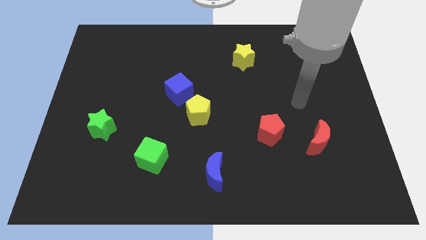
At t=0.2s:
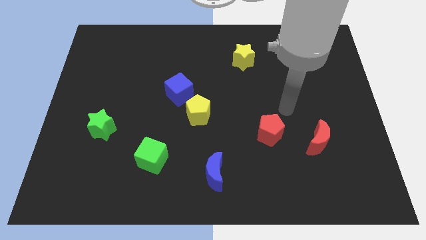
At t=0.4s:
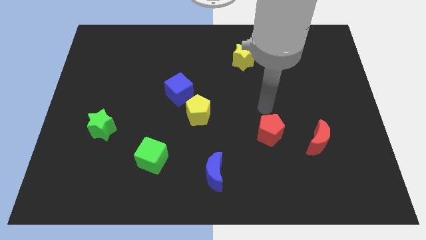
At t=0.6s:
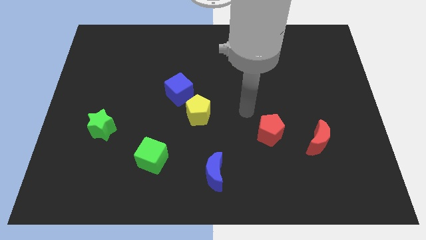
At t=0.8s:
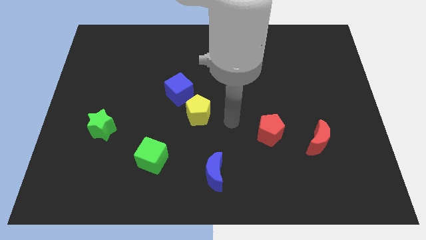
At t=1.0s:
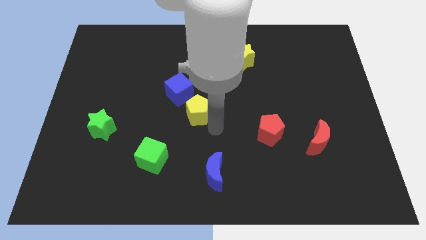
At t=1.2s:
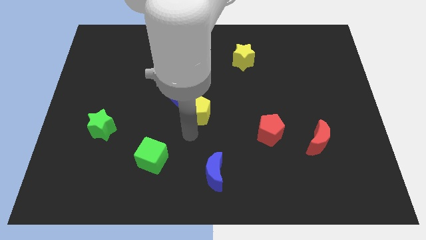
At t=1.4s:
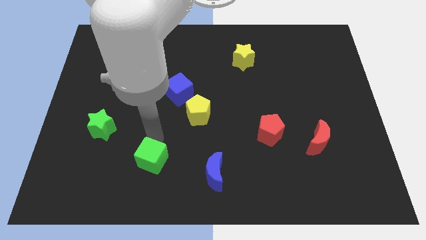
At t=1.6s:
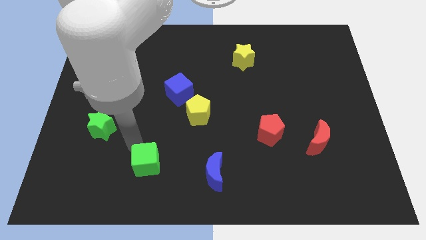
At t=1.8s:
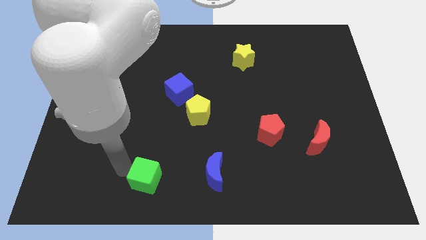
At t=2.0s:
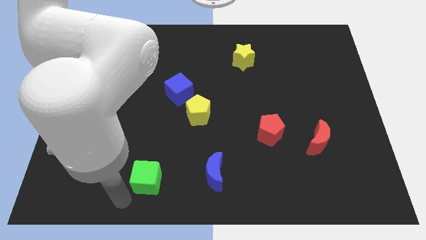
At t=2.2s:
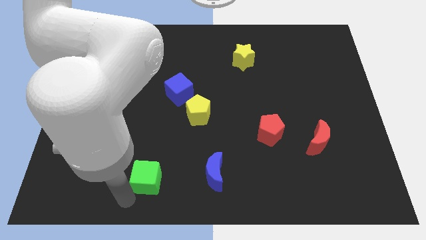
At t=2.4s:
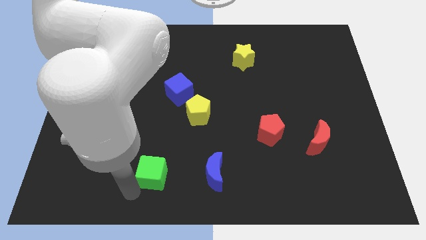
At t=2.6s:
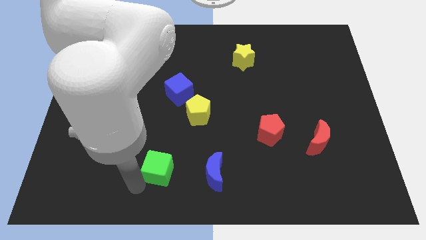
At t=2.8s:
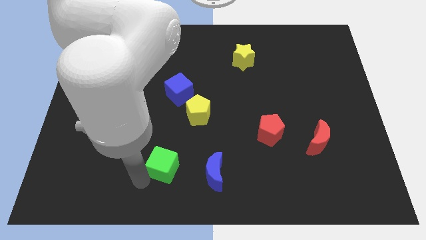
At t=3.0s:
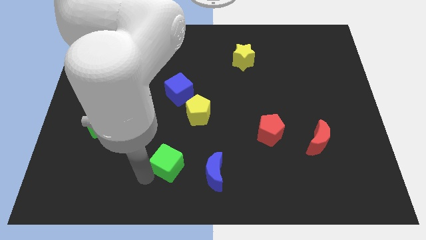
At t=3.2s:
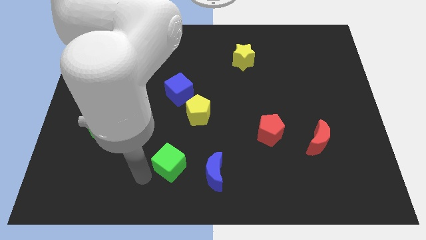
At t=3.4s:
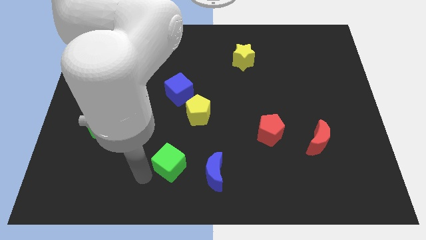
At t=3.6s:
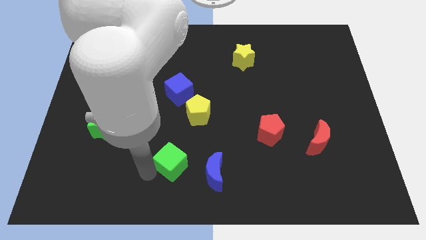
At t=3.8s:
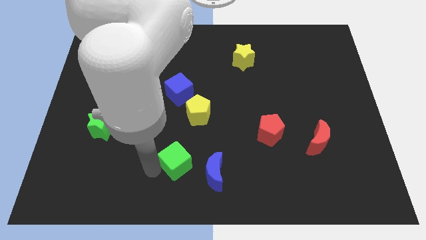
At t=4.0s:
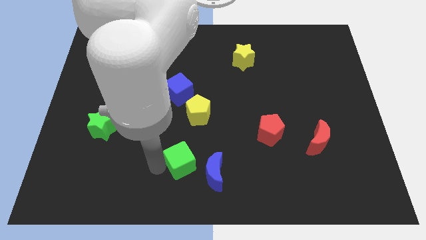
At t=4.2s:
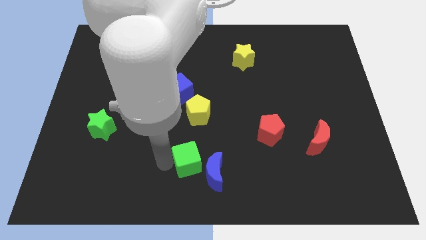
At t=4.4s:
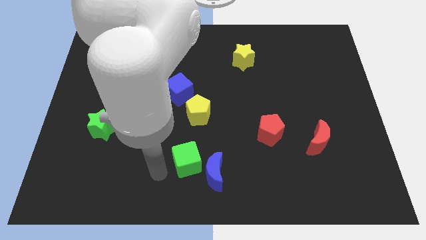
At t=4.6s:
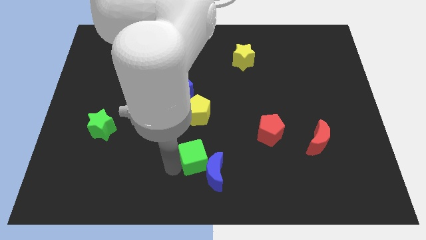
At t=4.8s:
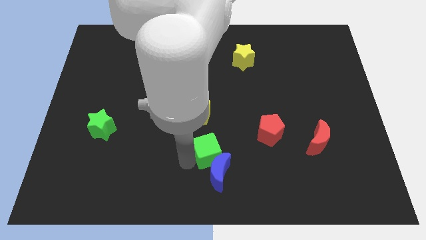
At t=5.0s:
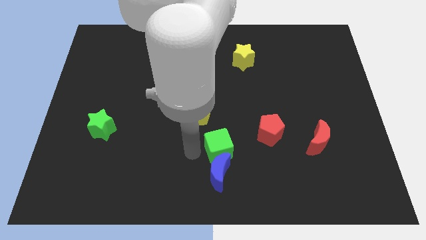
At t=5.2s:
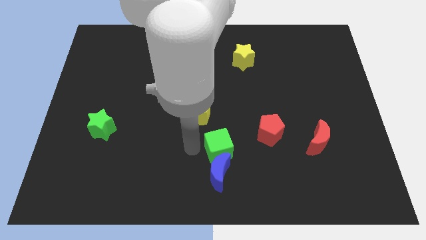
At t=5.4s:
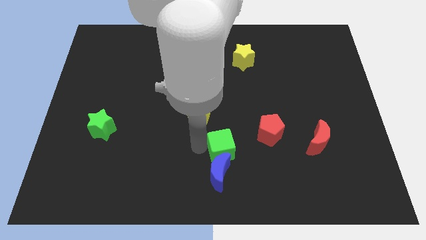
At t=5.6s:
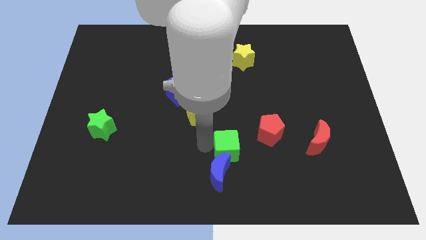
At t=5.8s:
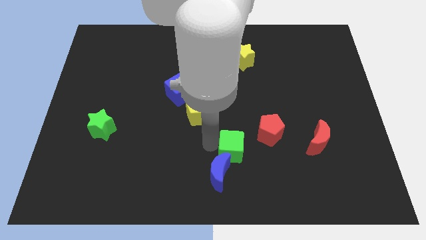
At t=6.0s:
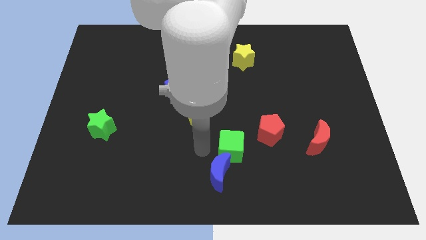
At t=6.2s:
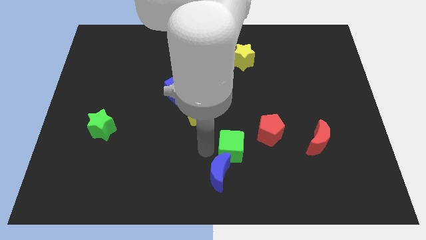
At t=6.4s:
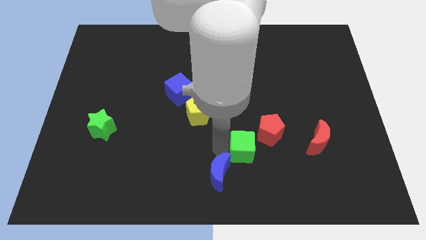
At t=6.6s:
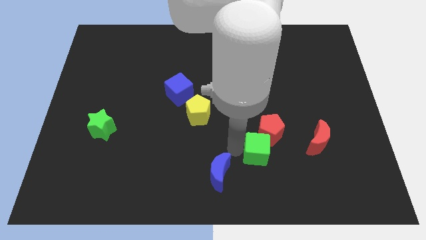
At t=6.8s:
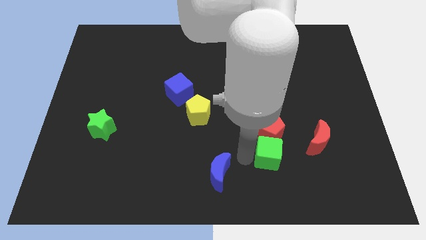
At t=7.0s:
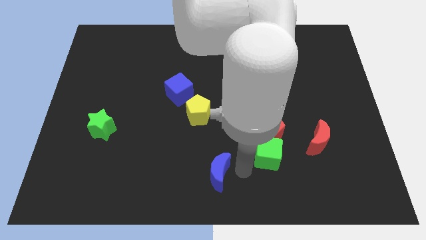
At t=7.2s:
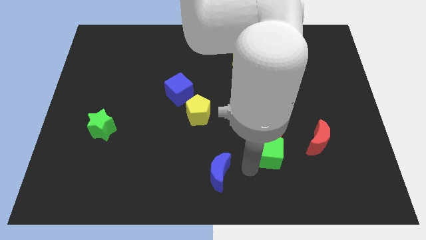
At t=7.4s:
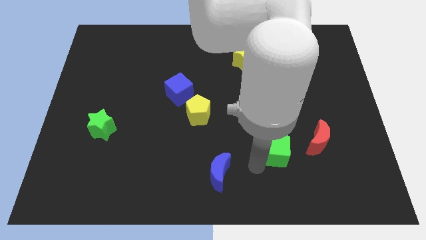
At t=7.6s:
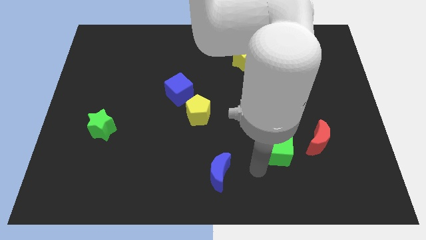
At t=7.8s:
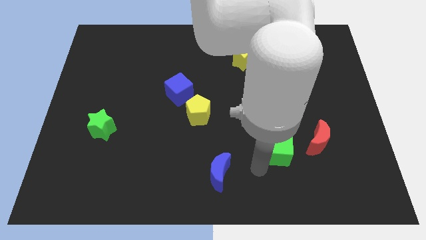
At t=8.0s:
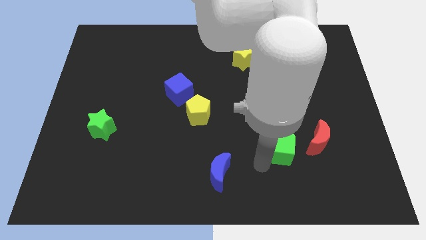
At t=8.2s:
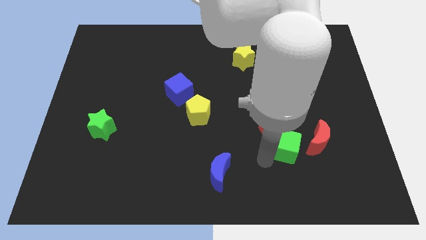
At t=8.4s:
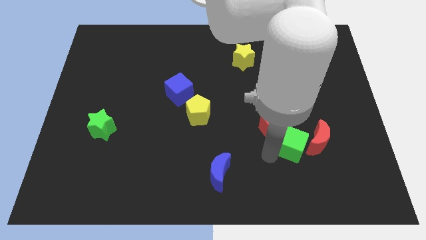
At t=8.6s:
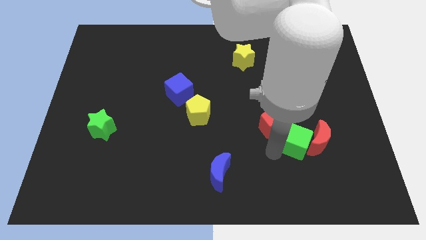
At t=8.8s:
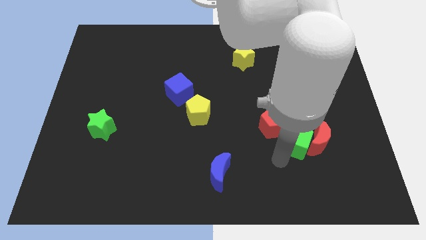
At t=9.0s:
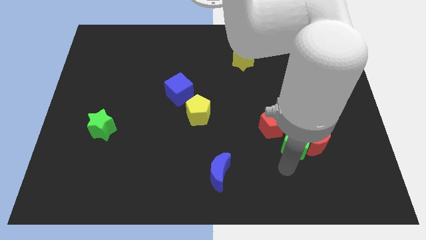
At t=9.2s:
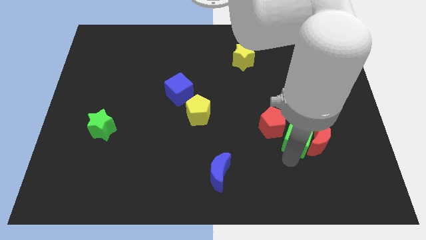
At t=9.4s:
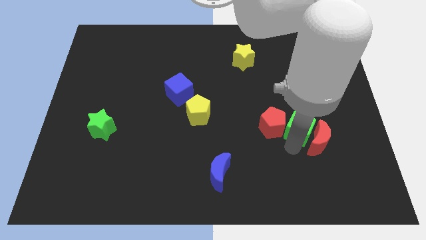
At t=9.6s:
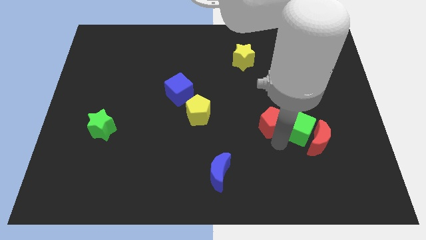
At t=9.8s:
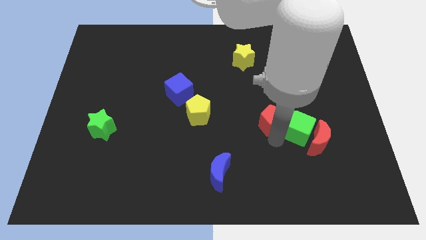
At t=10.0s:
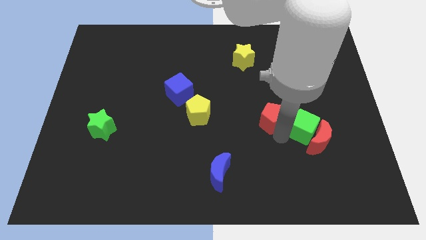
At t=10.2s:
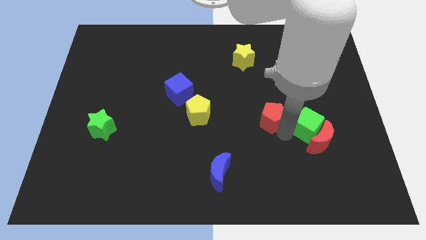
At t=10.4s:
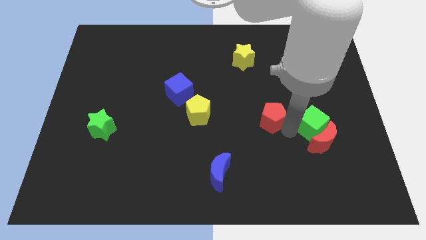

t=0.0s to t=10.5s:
put the green cube diagonally up and to the right of the red moon

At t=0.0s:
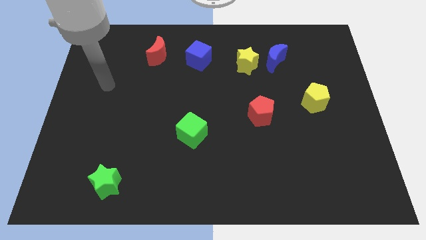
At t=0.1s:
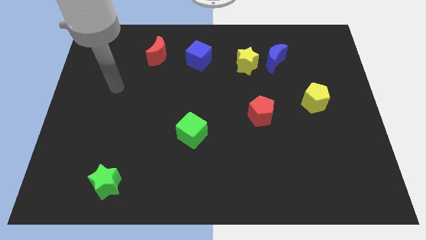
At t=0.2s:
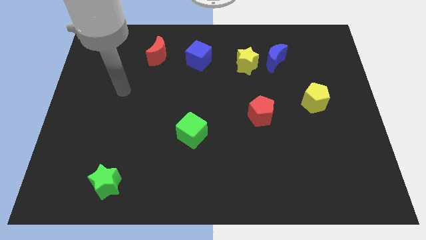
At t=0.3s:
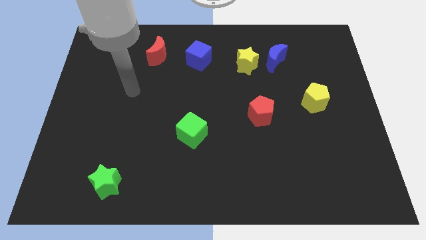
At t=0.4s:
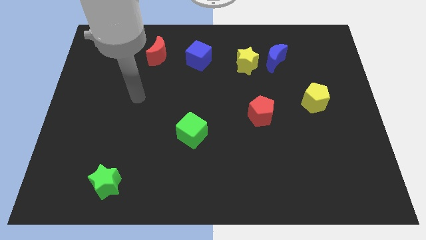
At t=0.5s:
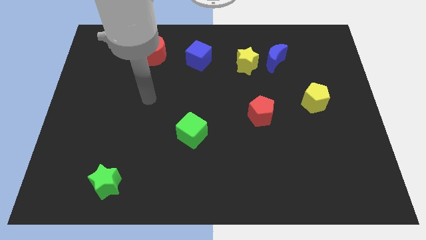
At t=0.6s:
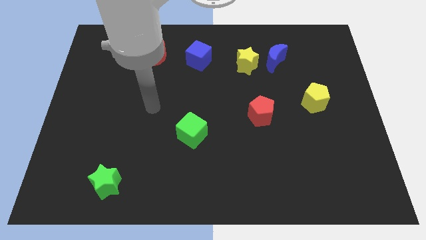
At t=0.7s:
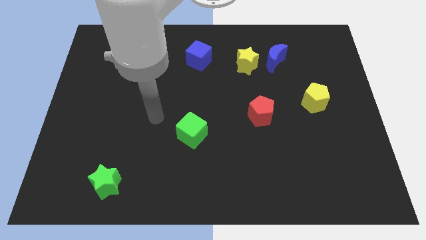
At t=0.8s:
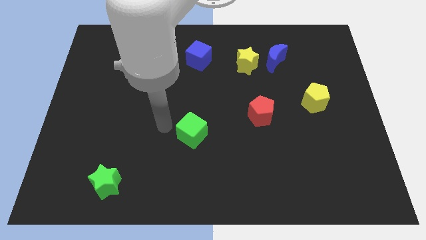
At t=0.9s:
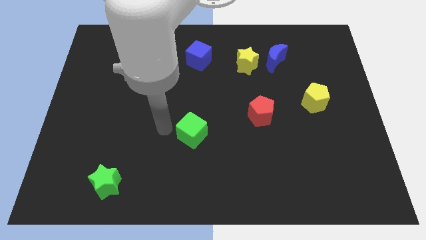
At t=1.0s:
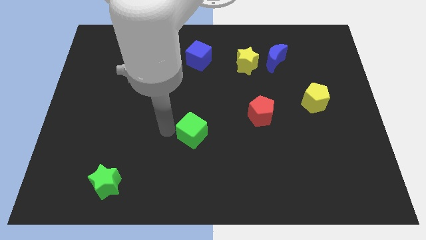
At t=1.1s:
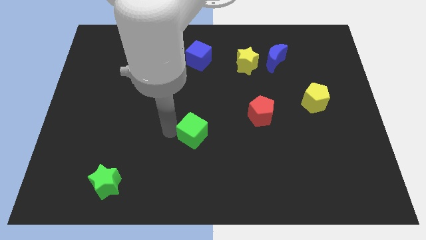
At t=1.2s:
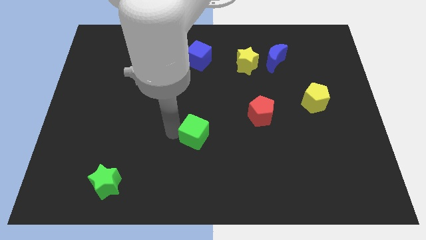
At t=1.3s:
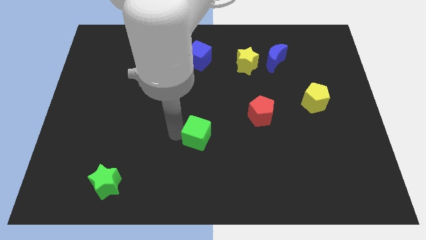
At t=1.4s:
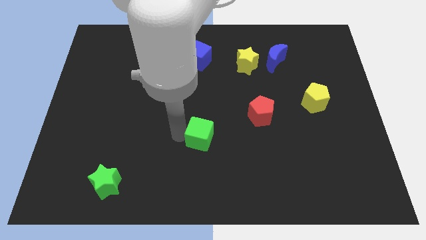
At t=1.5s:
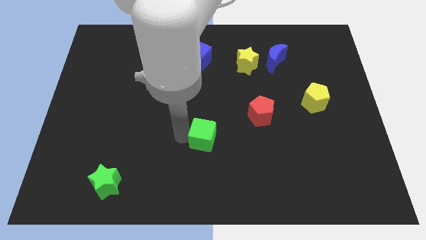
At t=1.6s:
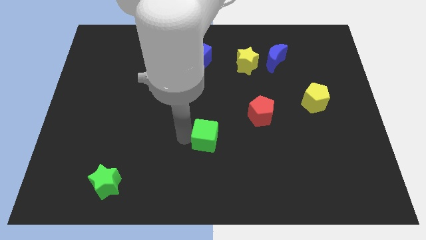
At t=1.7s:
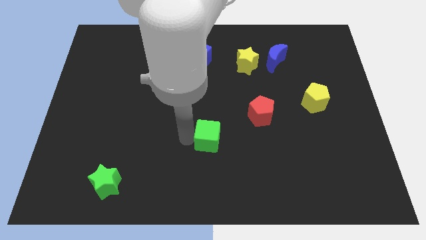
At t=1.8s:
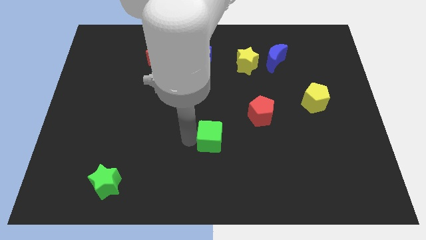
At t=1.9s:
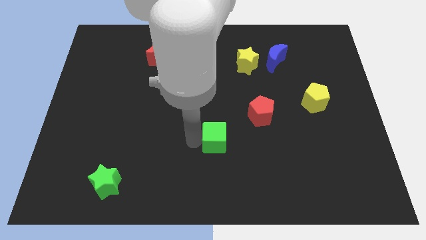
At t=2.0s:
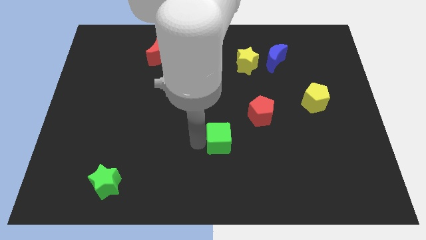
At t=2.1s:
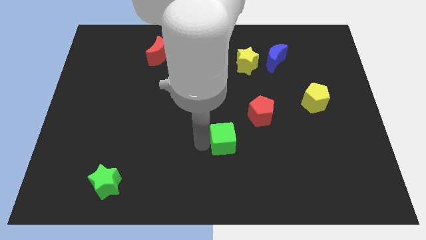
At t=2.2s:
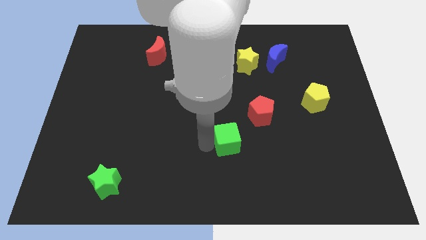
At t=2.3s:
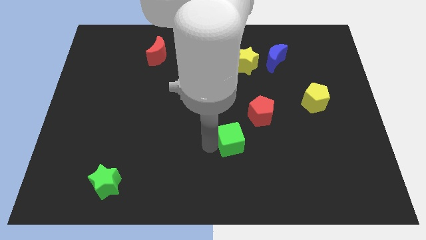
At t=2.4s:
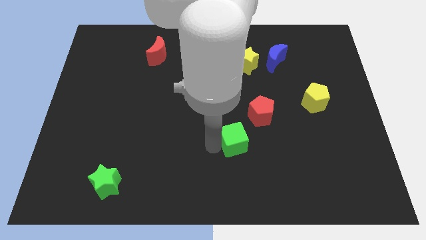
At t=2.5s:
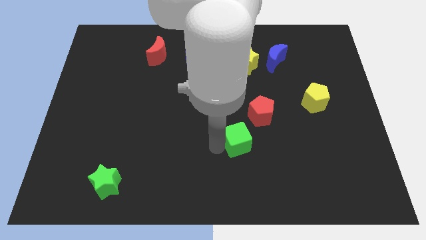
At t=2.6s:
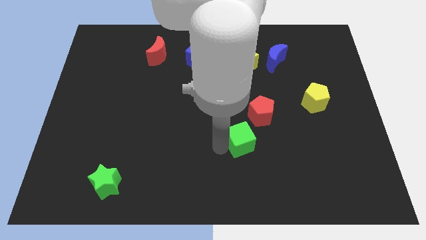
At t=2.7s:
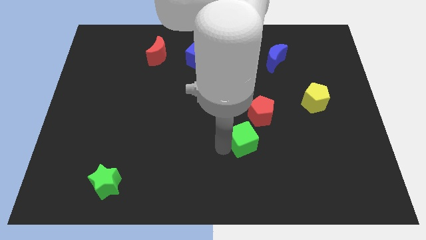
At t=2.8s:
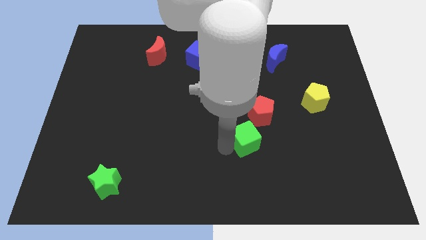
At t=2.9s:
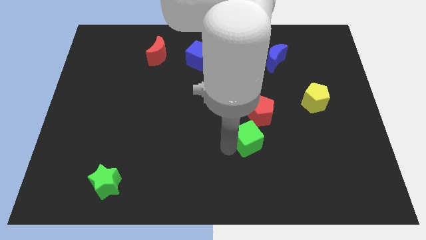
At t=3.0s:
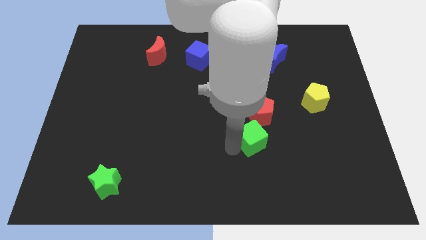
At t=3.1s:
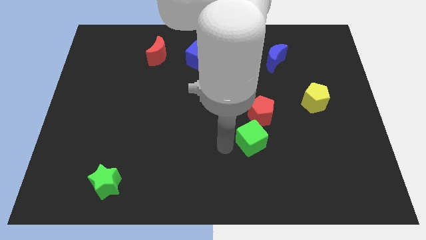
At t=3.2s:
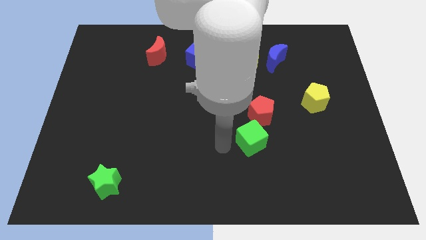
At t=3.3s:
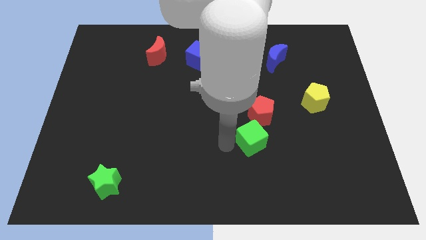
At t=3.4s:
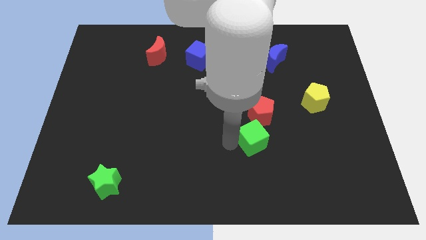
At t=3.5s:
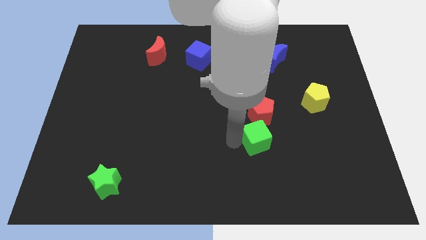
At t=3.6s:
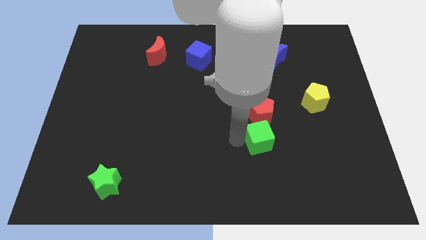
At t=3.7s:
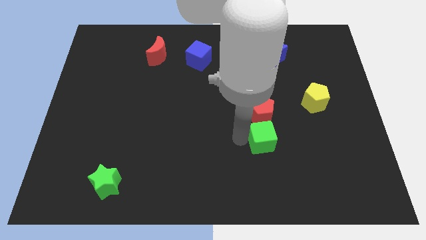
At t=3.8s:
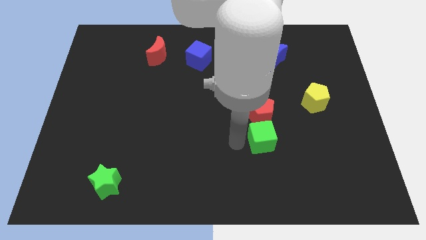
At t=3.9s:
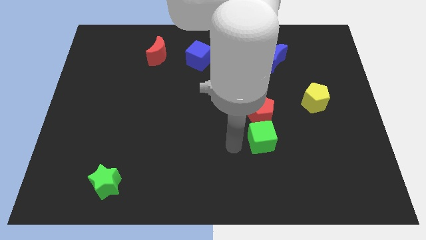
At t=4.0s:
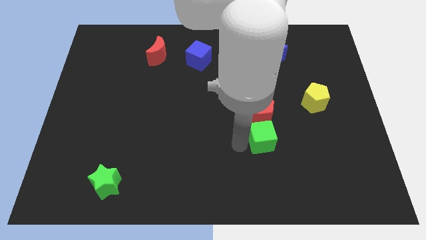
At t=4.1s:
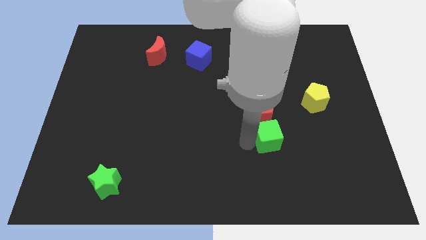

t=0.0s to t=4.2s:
slide the green cube to the bottom right side of the red pentagon
